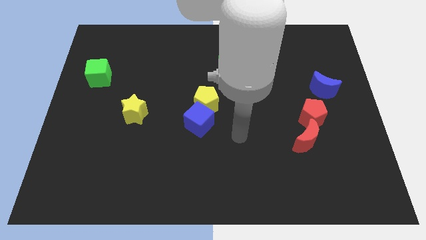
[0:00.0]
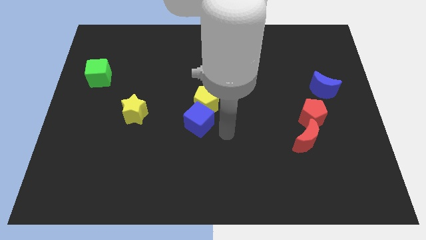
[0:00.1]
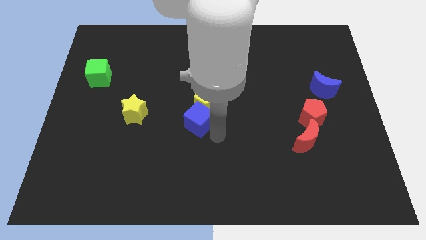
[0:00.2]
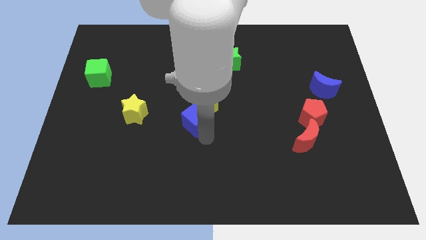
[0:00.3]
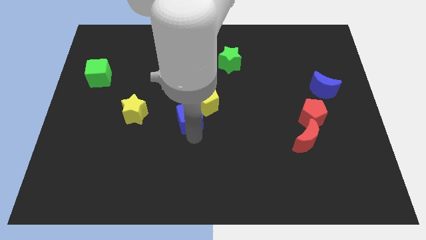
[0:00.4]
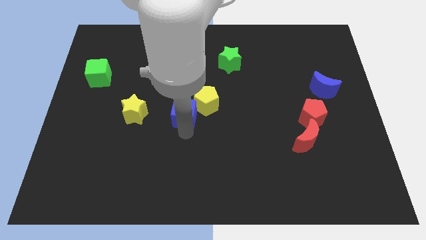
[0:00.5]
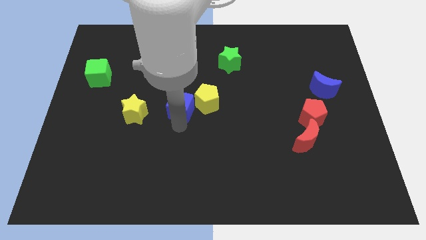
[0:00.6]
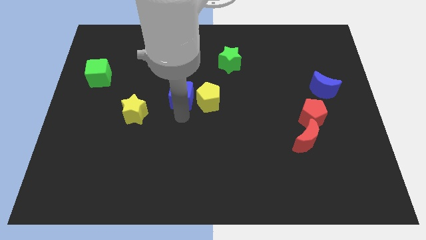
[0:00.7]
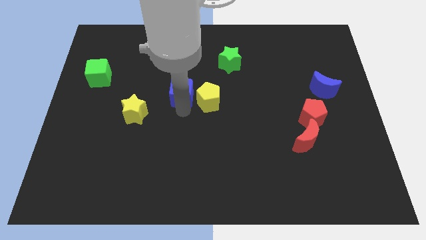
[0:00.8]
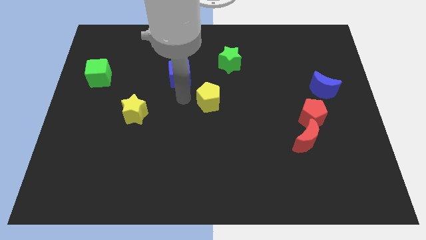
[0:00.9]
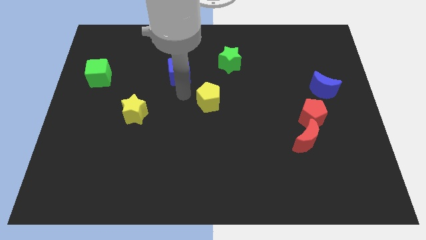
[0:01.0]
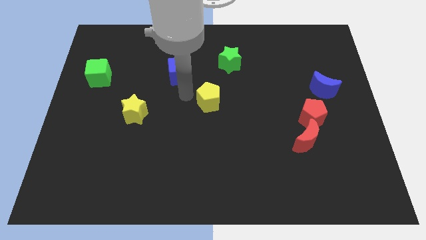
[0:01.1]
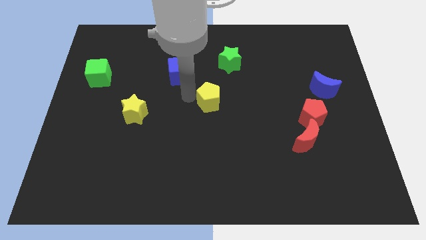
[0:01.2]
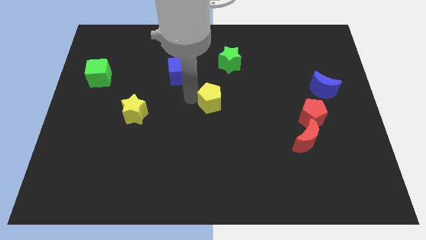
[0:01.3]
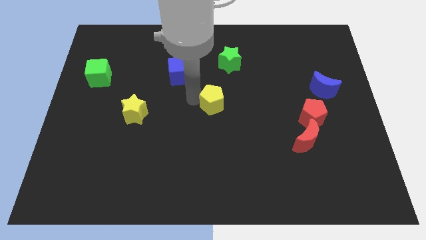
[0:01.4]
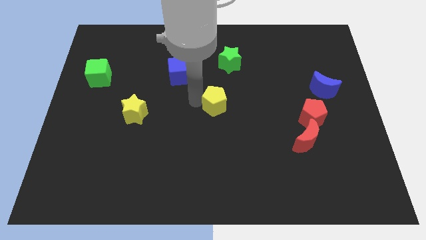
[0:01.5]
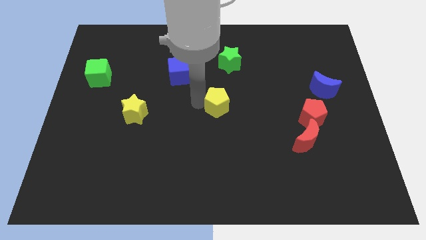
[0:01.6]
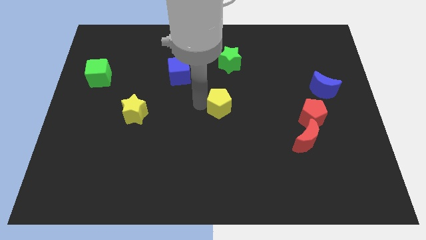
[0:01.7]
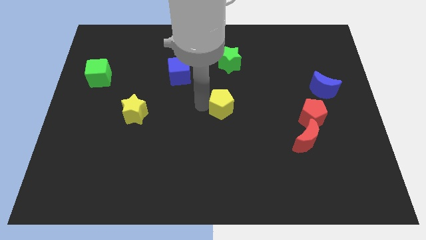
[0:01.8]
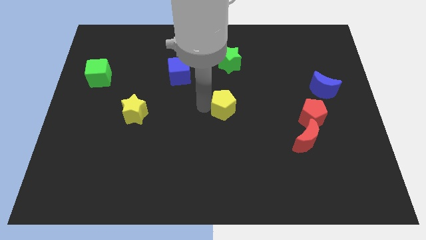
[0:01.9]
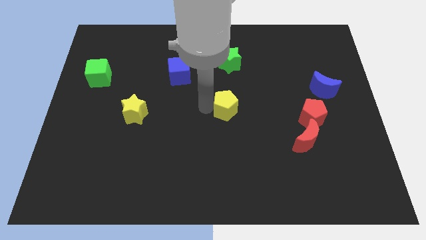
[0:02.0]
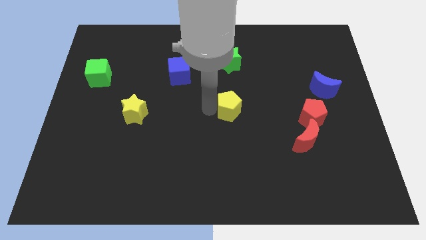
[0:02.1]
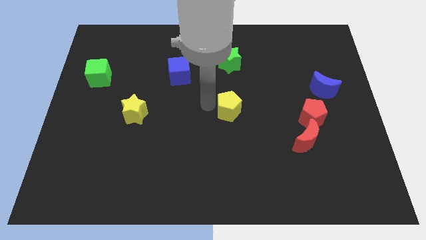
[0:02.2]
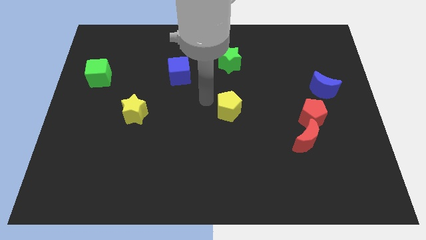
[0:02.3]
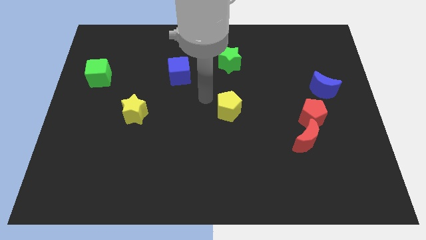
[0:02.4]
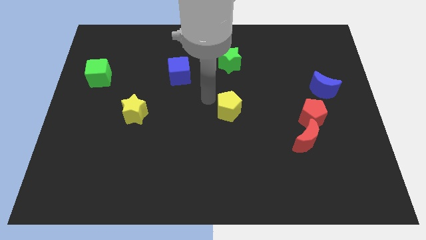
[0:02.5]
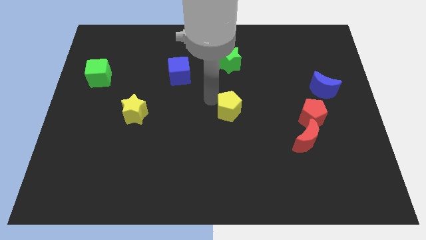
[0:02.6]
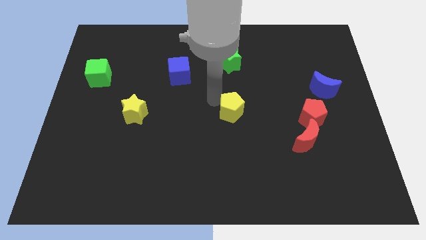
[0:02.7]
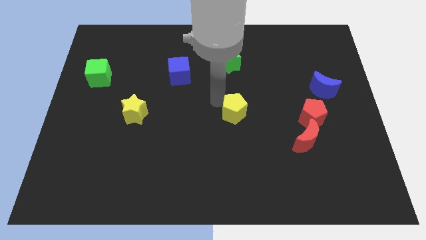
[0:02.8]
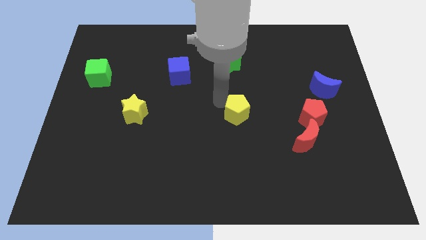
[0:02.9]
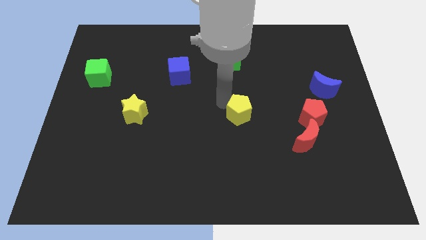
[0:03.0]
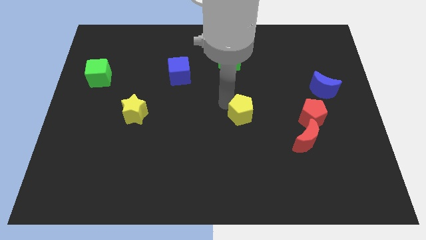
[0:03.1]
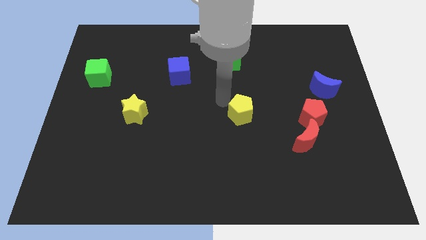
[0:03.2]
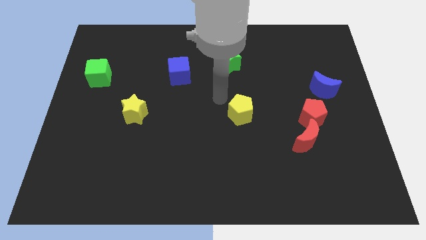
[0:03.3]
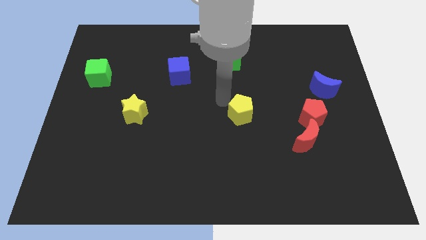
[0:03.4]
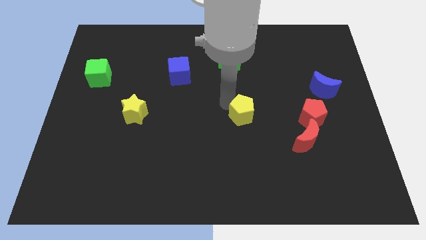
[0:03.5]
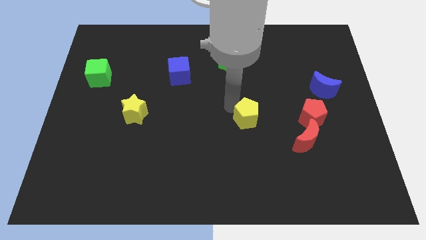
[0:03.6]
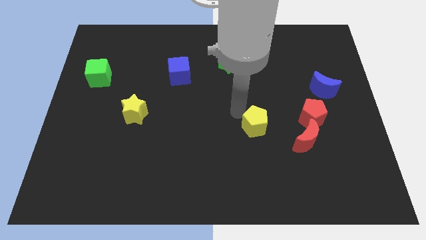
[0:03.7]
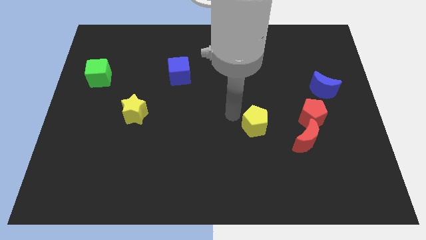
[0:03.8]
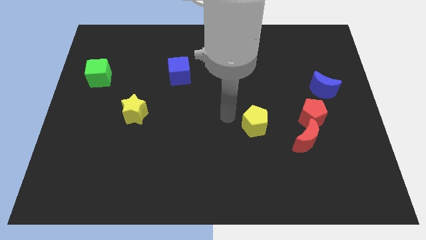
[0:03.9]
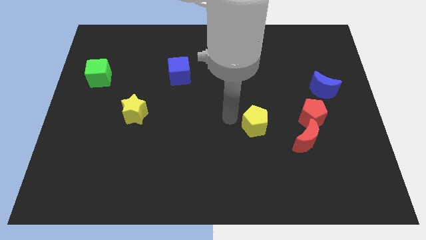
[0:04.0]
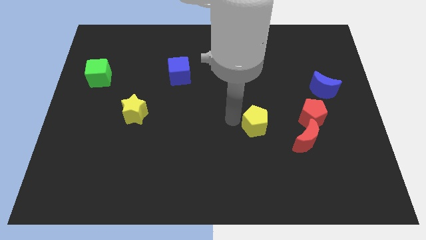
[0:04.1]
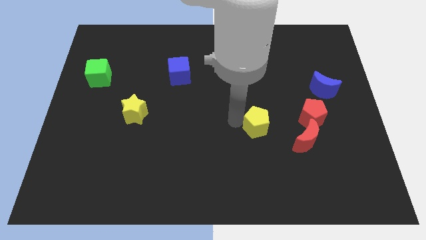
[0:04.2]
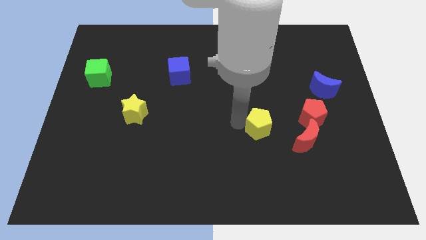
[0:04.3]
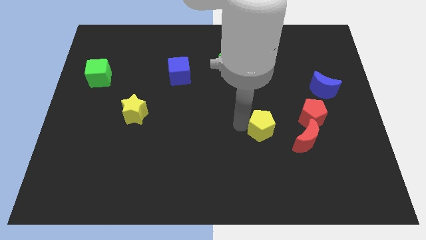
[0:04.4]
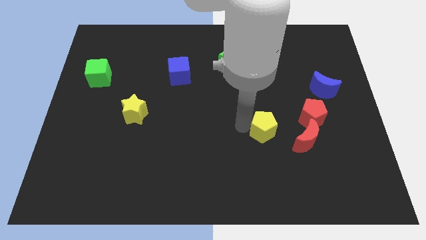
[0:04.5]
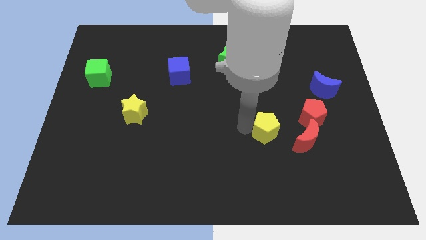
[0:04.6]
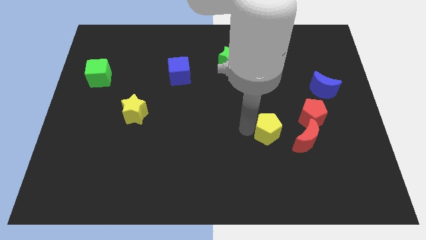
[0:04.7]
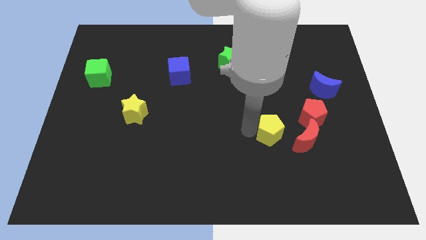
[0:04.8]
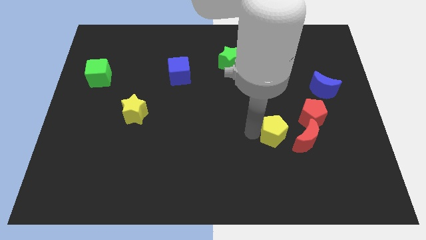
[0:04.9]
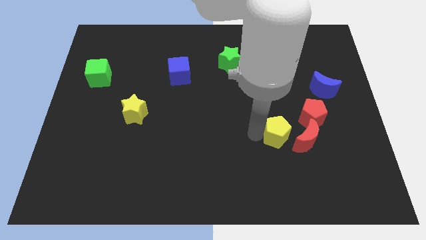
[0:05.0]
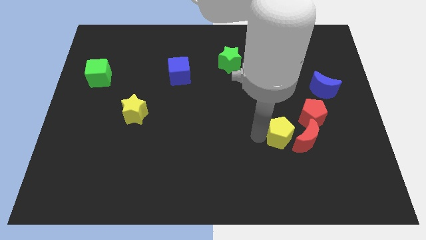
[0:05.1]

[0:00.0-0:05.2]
slide the yellow pentagon towards the red moon

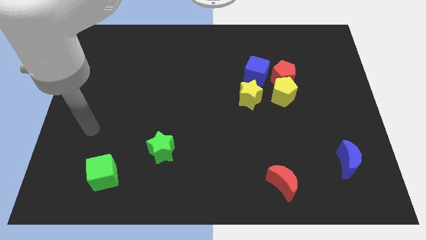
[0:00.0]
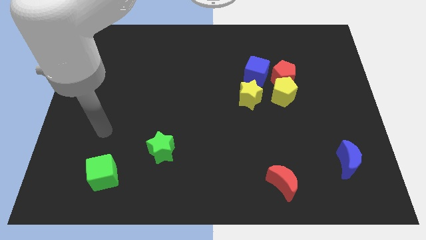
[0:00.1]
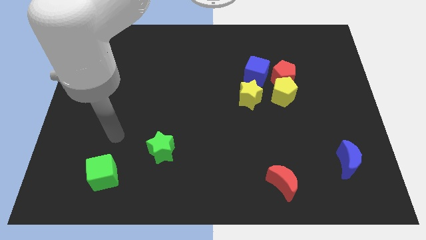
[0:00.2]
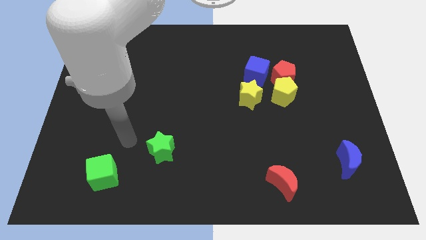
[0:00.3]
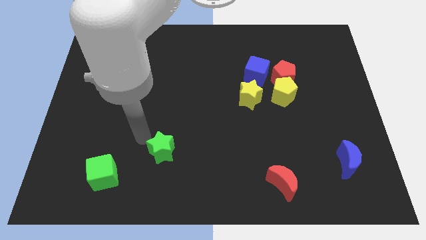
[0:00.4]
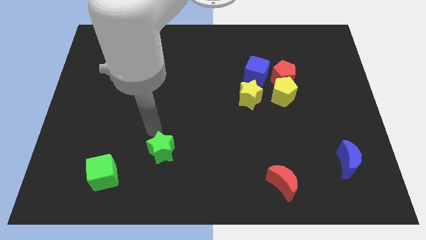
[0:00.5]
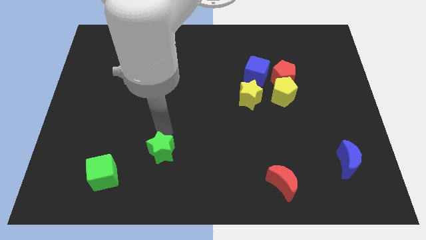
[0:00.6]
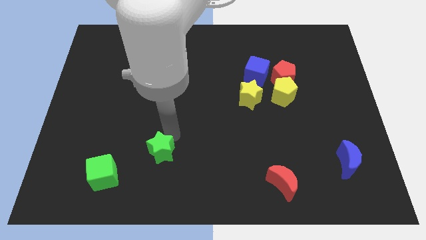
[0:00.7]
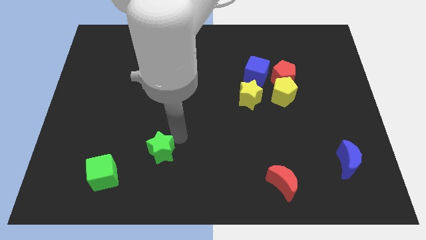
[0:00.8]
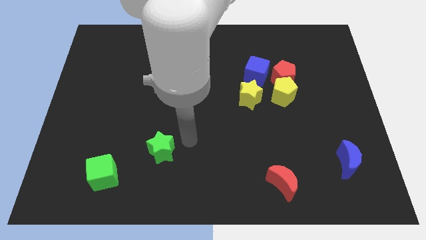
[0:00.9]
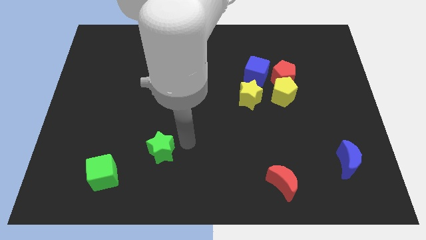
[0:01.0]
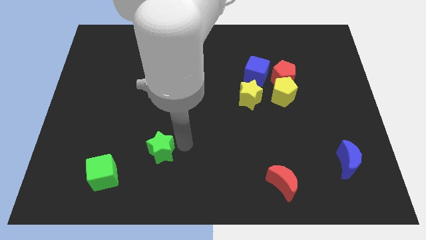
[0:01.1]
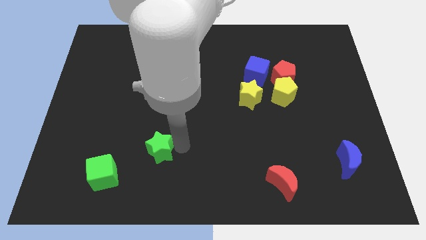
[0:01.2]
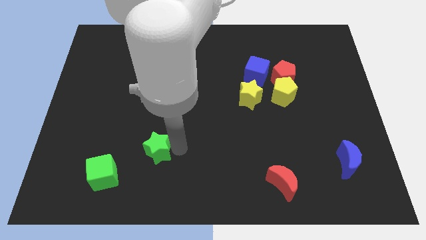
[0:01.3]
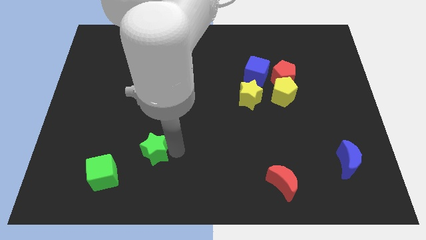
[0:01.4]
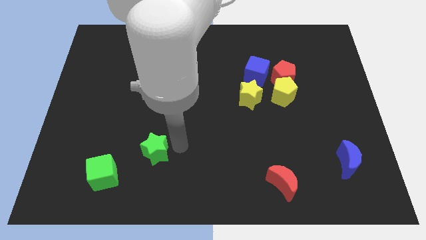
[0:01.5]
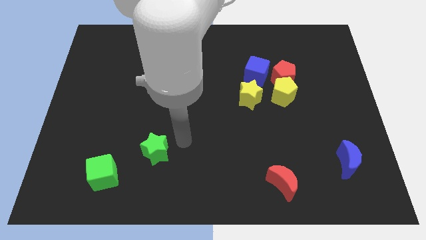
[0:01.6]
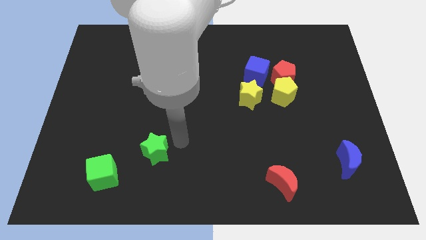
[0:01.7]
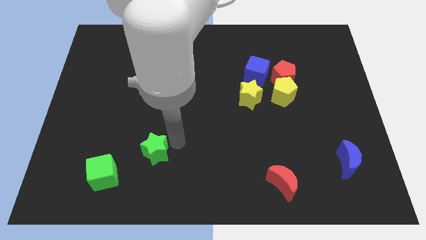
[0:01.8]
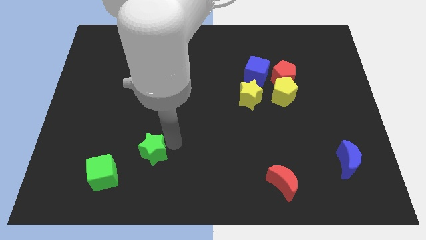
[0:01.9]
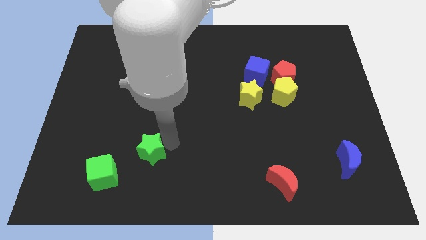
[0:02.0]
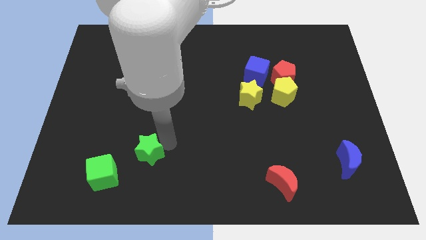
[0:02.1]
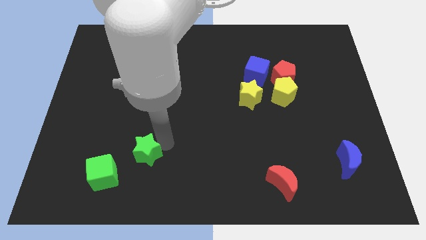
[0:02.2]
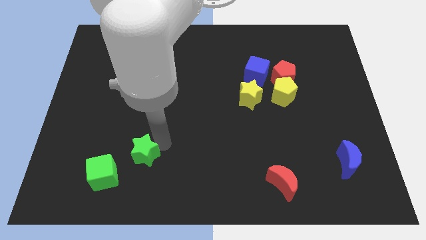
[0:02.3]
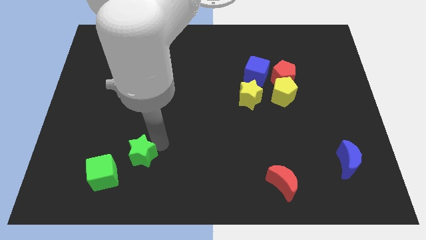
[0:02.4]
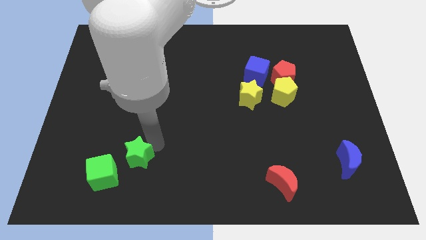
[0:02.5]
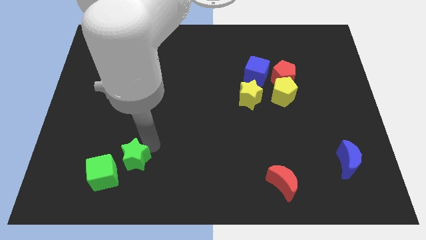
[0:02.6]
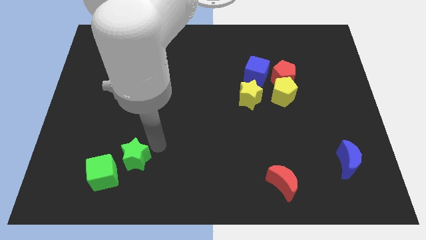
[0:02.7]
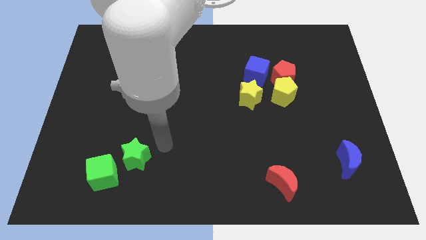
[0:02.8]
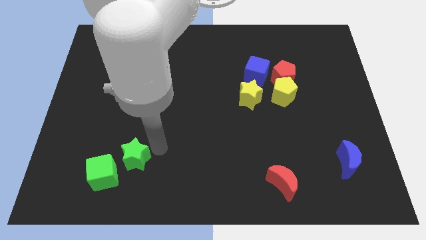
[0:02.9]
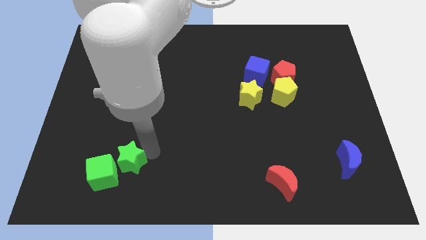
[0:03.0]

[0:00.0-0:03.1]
push the green star close to the green cube
